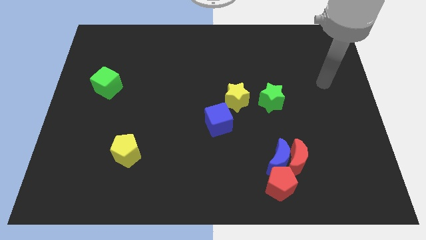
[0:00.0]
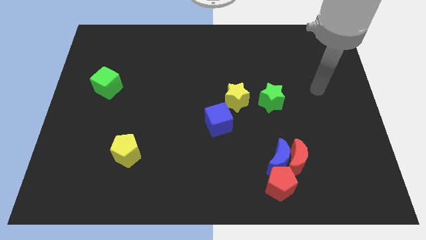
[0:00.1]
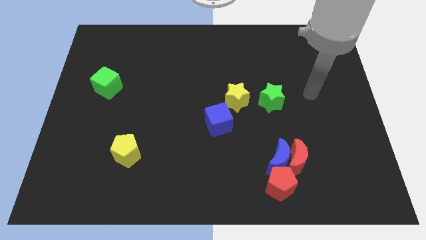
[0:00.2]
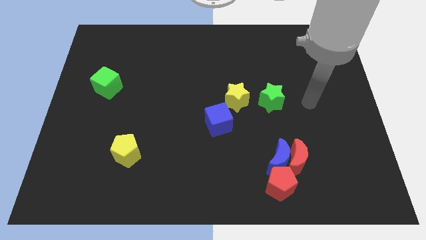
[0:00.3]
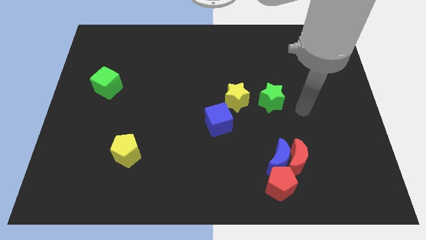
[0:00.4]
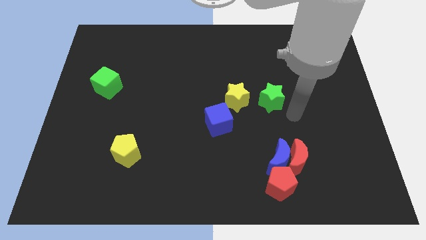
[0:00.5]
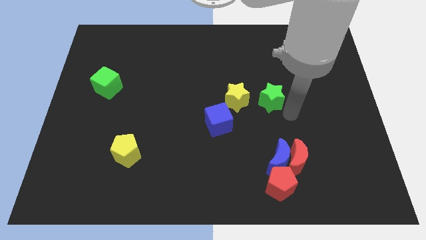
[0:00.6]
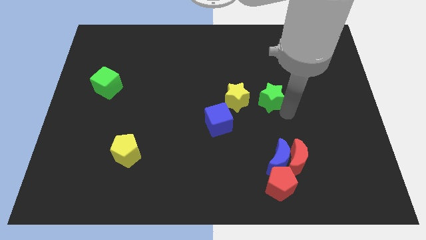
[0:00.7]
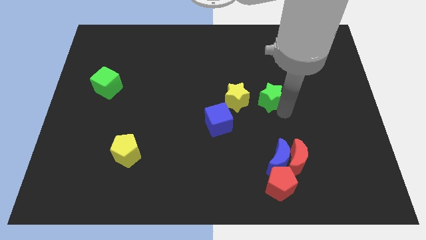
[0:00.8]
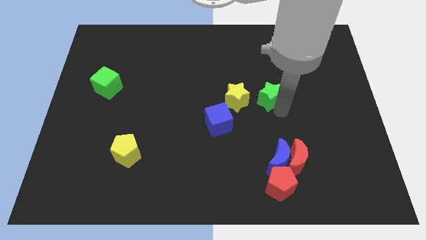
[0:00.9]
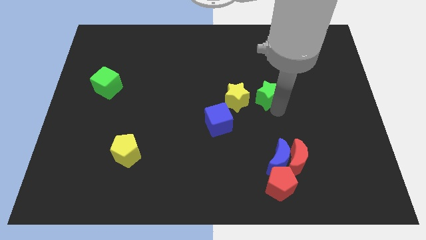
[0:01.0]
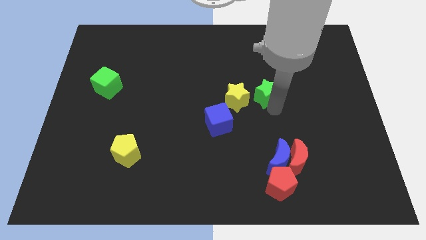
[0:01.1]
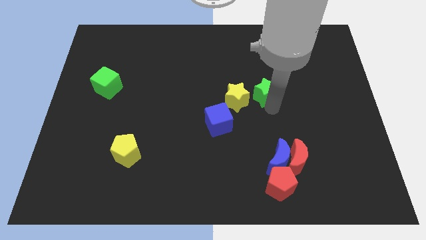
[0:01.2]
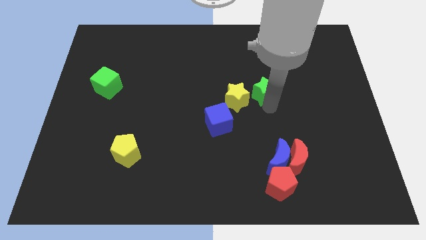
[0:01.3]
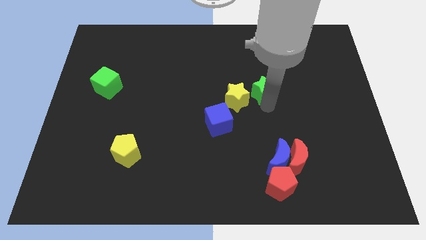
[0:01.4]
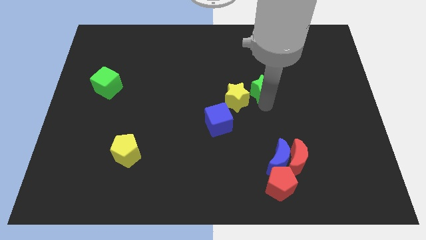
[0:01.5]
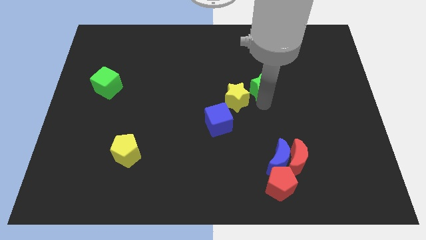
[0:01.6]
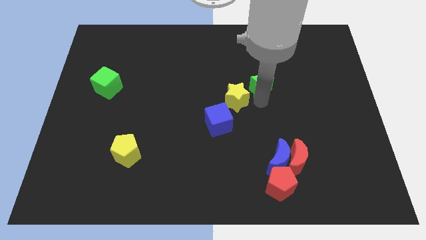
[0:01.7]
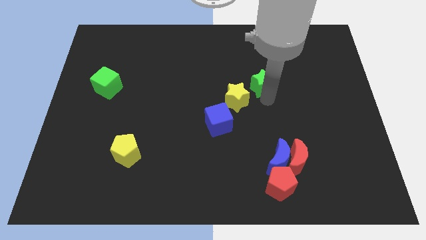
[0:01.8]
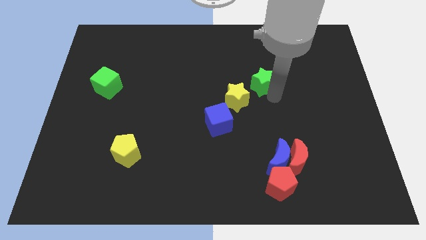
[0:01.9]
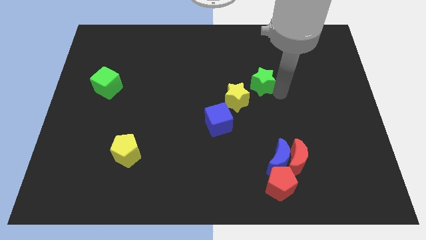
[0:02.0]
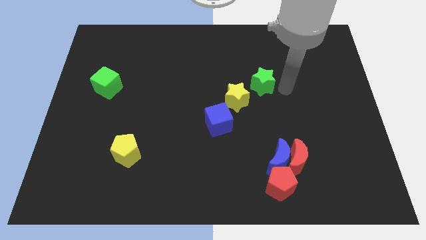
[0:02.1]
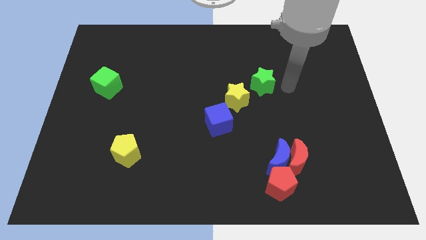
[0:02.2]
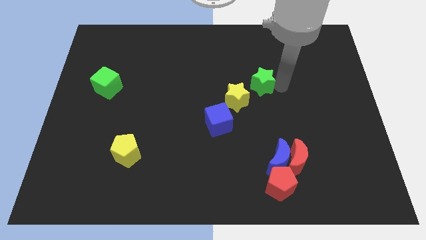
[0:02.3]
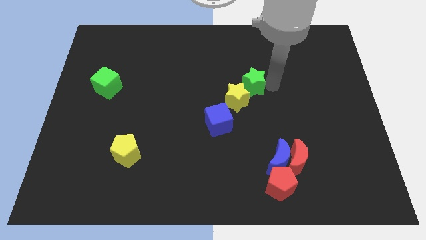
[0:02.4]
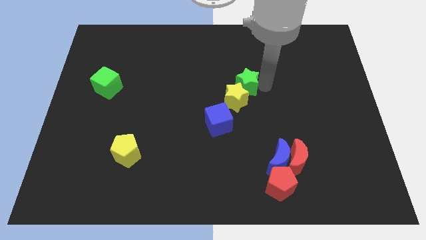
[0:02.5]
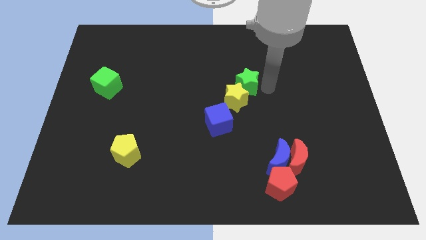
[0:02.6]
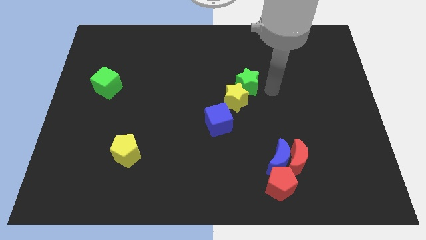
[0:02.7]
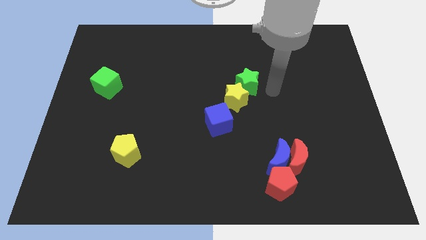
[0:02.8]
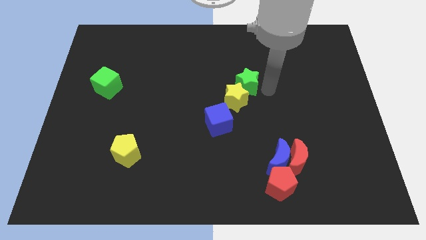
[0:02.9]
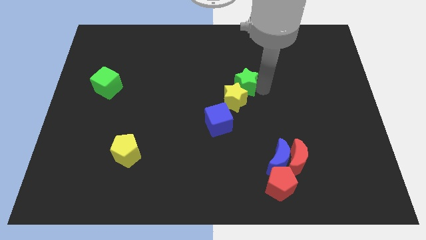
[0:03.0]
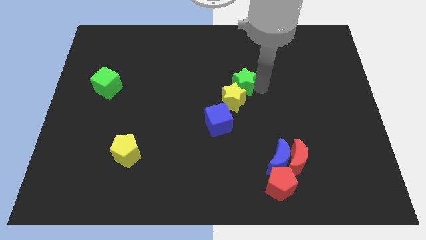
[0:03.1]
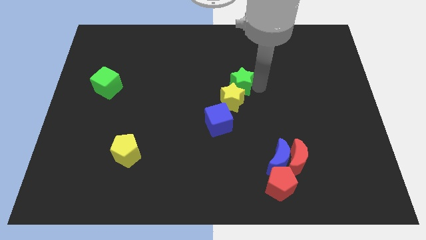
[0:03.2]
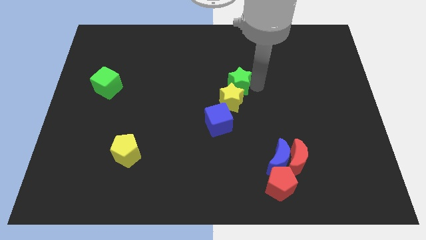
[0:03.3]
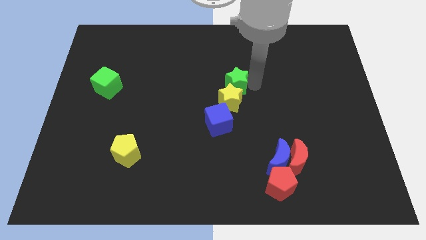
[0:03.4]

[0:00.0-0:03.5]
push the green star to the left slightly

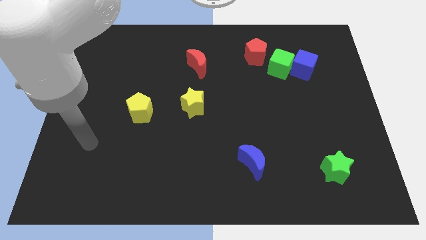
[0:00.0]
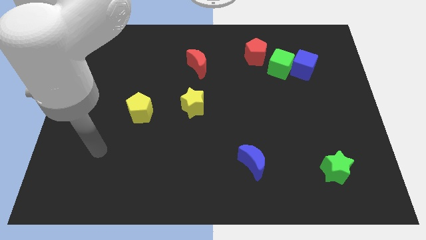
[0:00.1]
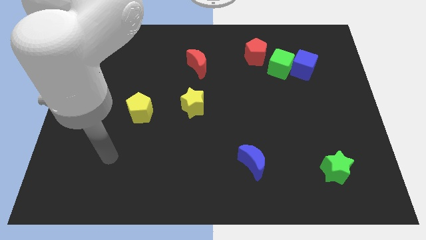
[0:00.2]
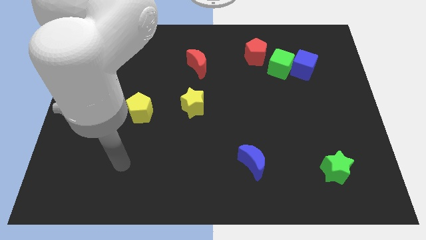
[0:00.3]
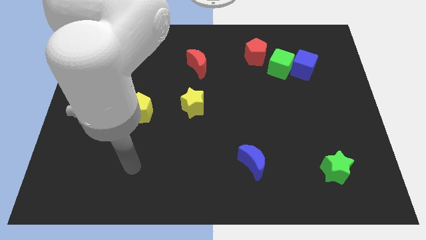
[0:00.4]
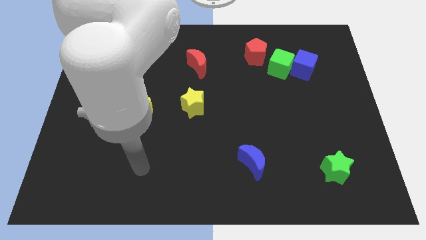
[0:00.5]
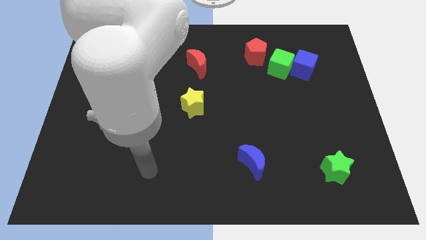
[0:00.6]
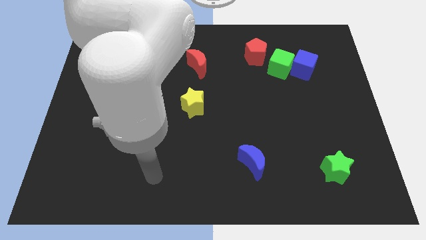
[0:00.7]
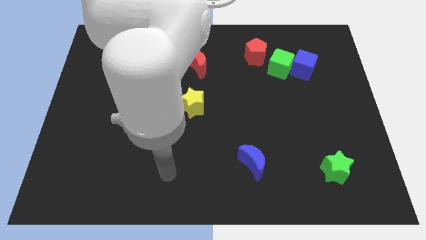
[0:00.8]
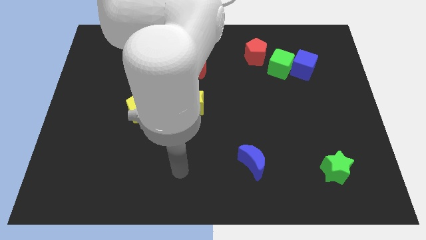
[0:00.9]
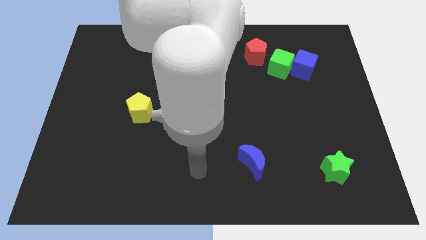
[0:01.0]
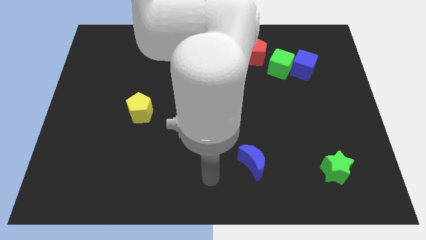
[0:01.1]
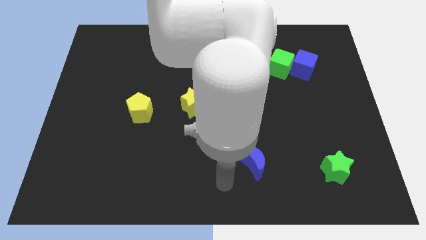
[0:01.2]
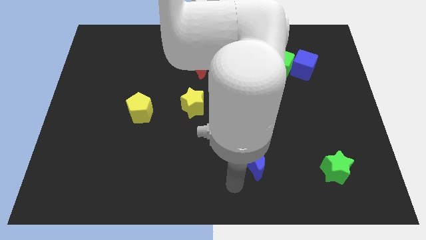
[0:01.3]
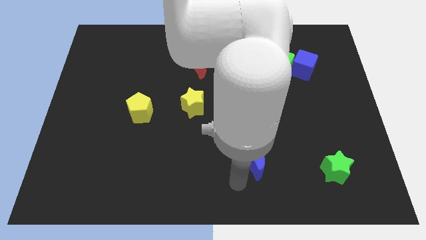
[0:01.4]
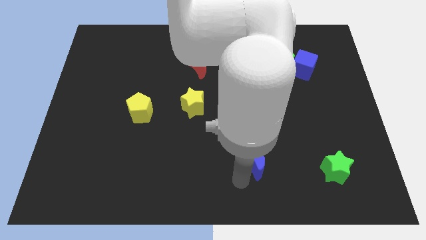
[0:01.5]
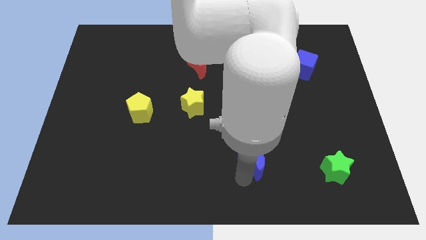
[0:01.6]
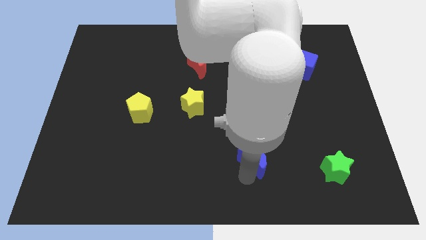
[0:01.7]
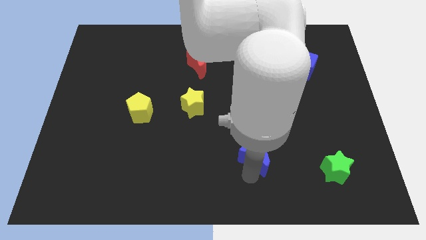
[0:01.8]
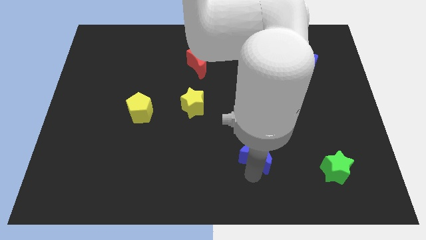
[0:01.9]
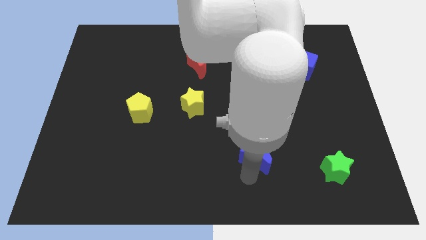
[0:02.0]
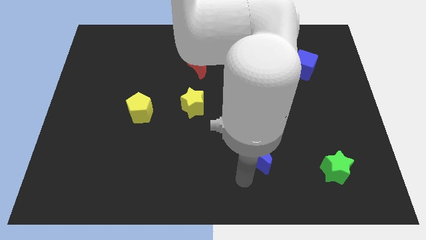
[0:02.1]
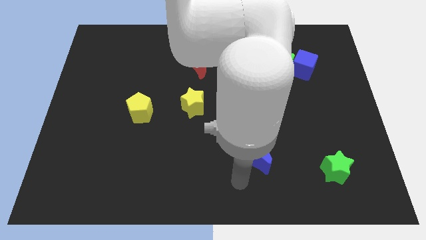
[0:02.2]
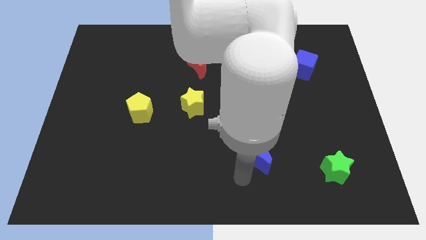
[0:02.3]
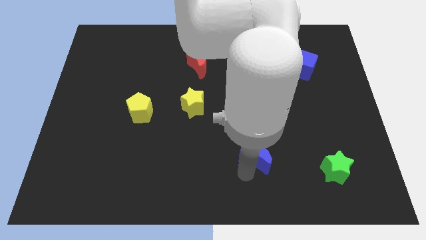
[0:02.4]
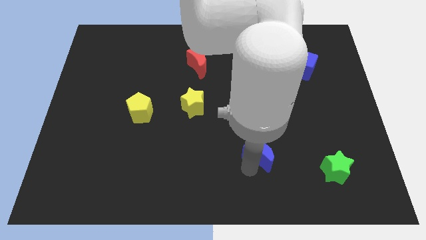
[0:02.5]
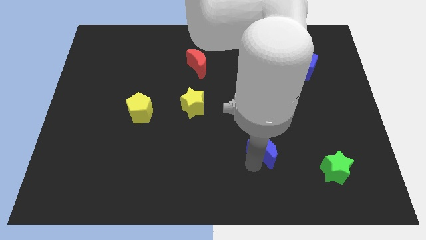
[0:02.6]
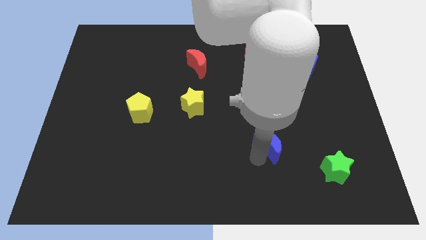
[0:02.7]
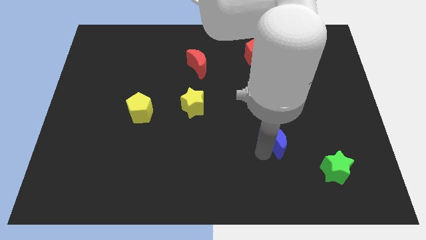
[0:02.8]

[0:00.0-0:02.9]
push the blue moon slightly diagonally upwards and right

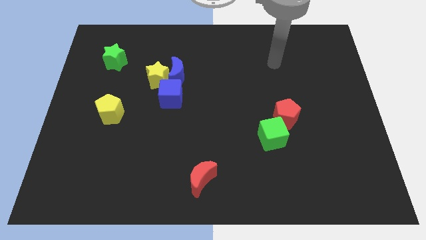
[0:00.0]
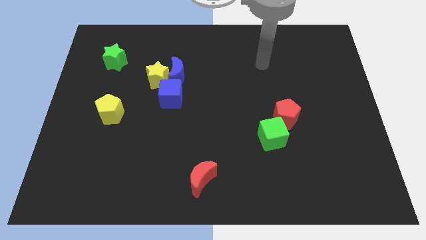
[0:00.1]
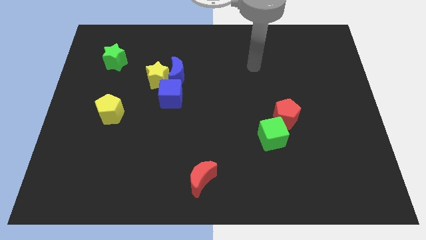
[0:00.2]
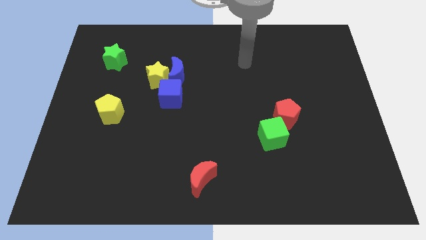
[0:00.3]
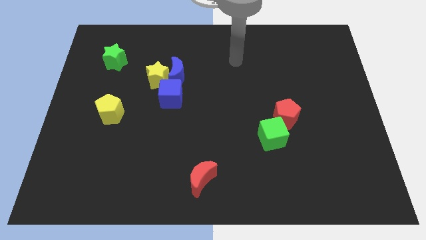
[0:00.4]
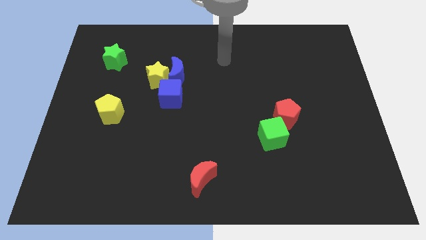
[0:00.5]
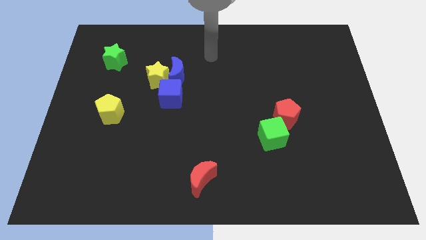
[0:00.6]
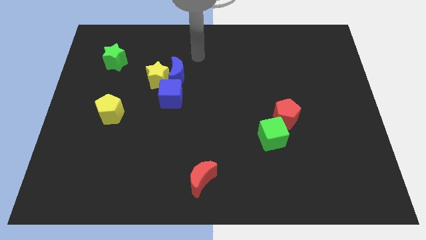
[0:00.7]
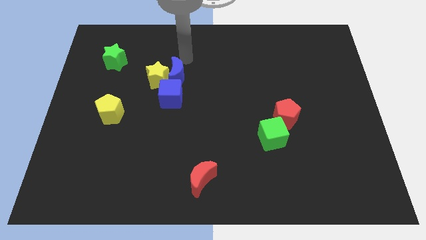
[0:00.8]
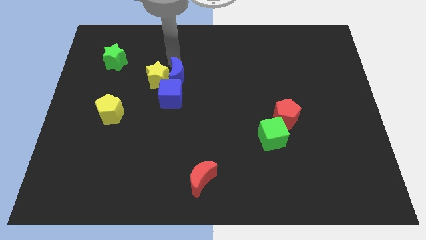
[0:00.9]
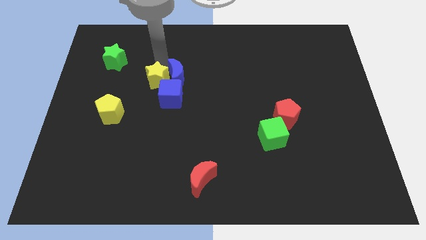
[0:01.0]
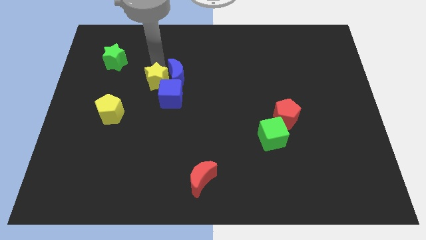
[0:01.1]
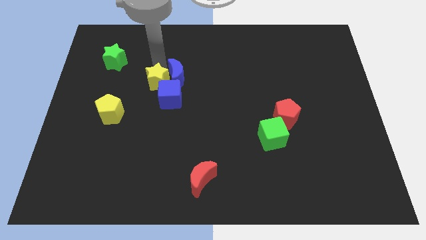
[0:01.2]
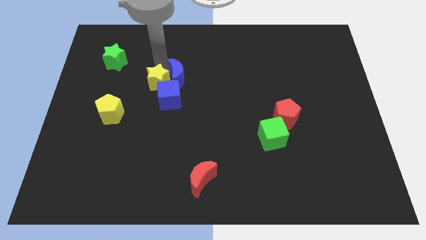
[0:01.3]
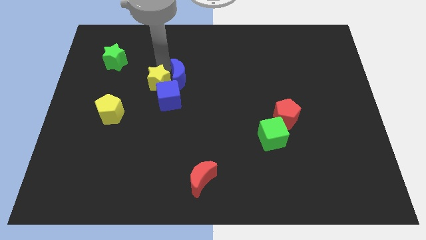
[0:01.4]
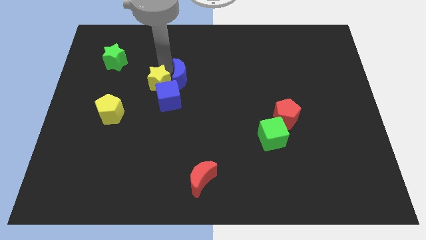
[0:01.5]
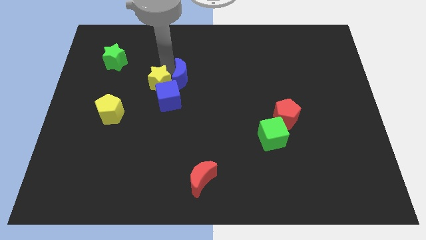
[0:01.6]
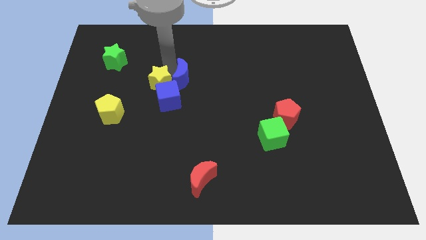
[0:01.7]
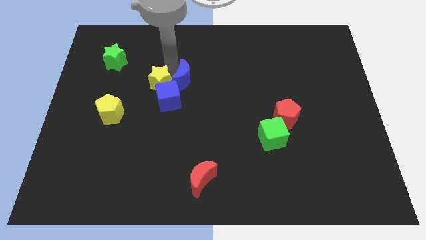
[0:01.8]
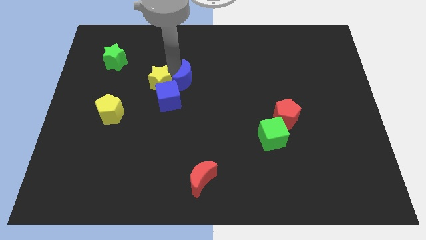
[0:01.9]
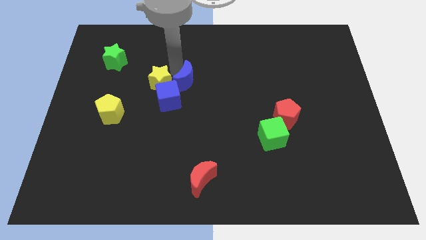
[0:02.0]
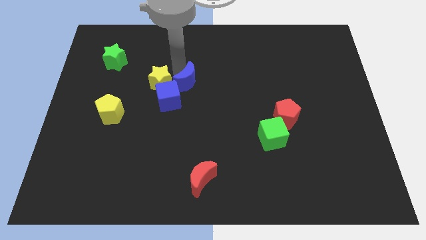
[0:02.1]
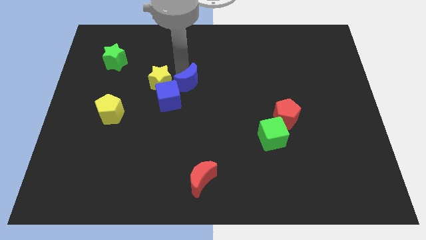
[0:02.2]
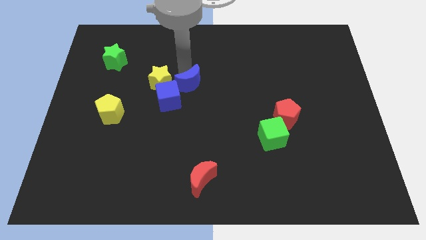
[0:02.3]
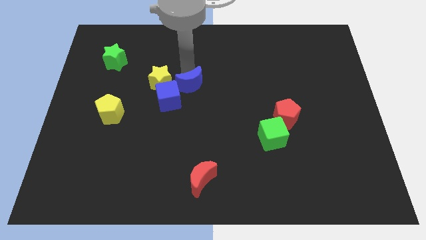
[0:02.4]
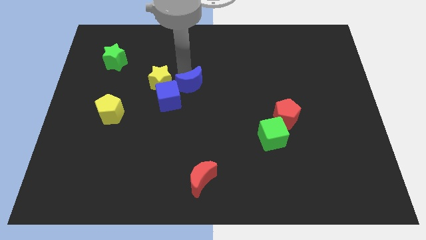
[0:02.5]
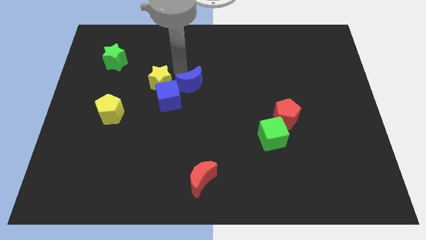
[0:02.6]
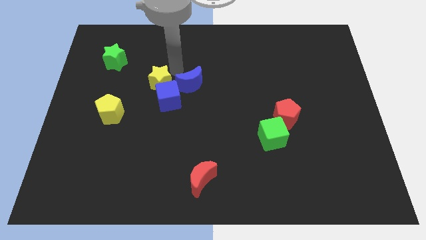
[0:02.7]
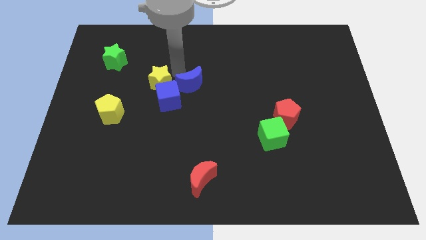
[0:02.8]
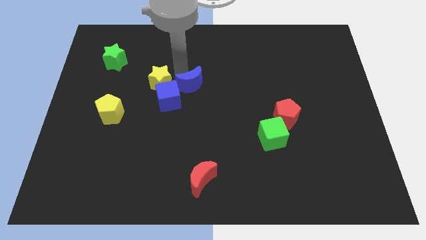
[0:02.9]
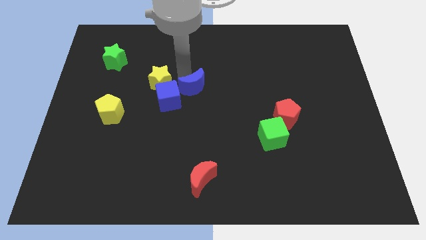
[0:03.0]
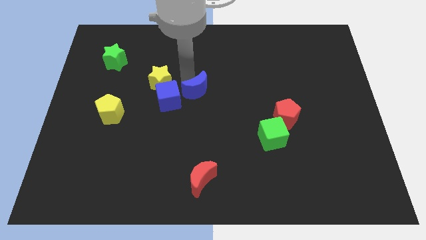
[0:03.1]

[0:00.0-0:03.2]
push the blue moon down and then right a little bit
